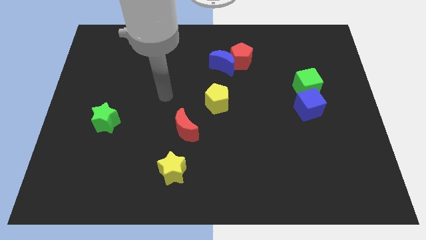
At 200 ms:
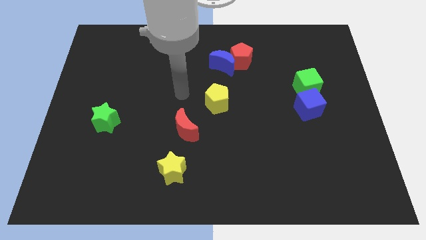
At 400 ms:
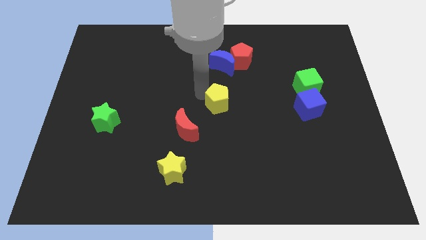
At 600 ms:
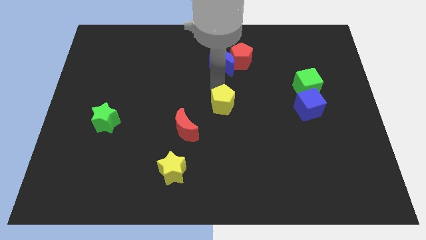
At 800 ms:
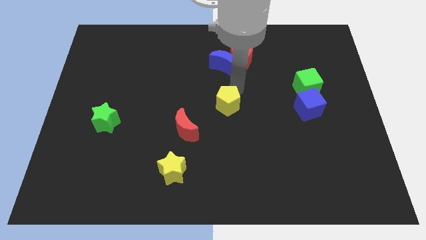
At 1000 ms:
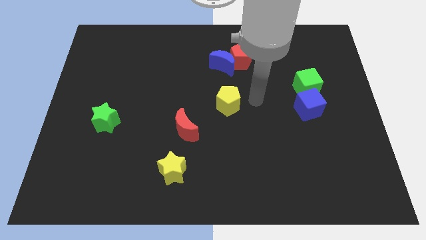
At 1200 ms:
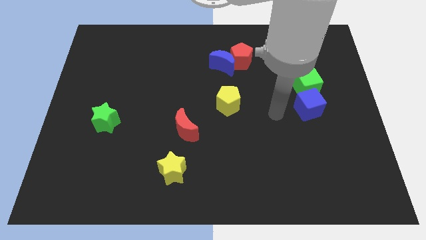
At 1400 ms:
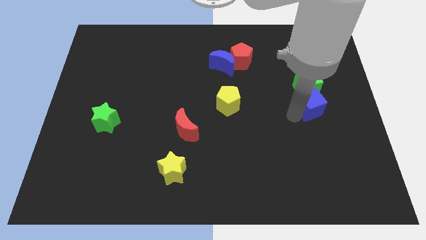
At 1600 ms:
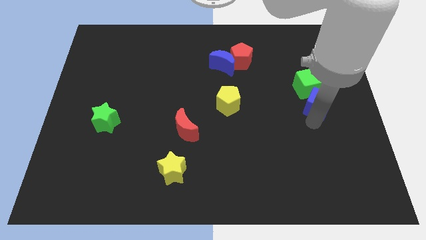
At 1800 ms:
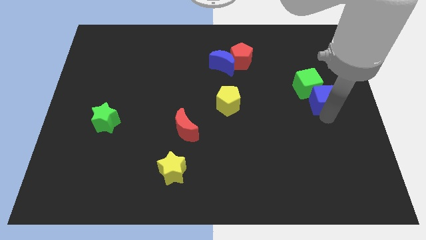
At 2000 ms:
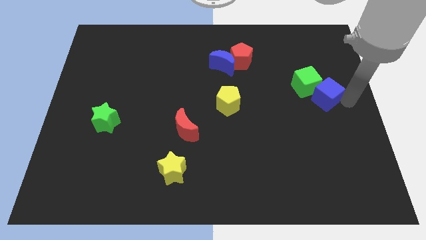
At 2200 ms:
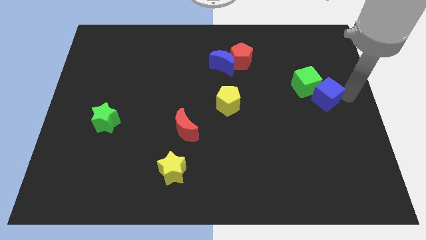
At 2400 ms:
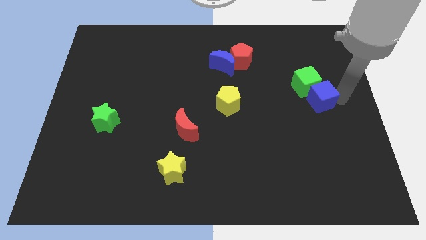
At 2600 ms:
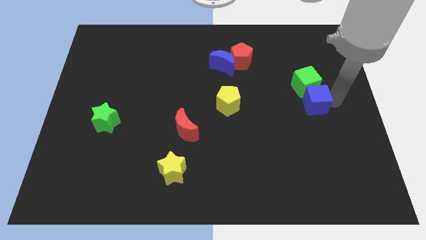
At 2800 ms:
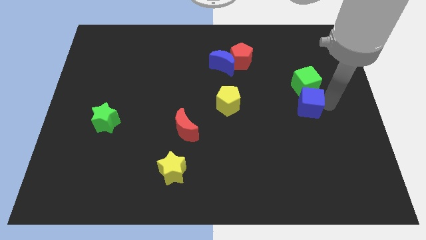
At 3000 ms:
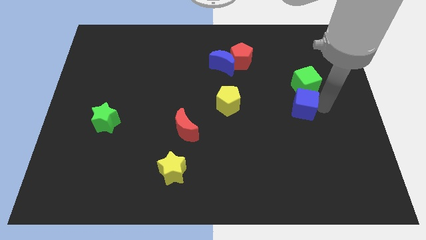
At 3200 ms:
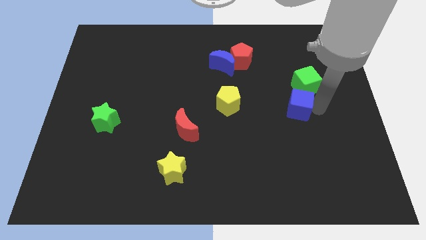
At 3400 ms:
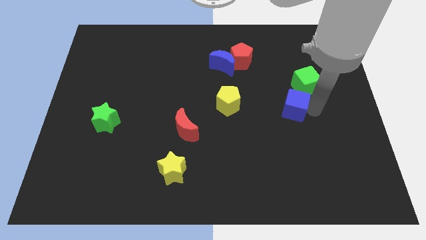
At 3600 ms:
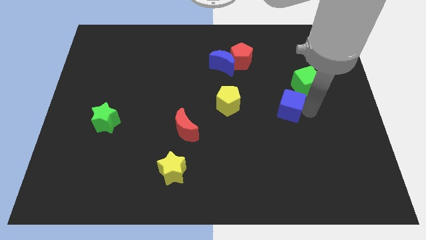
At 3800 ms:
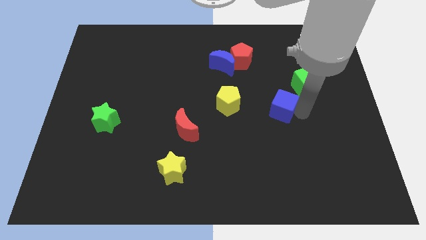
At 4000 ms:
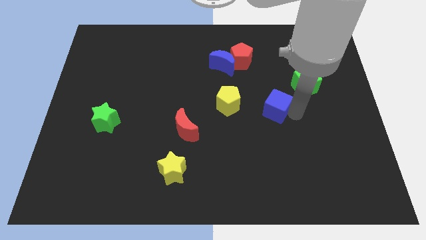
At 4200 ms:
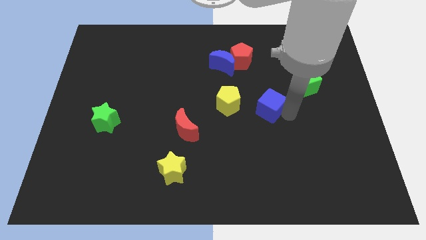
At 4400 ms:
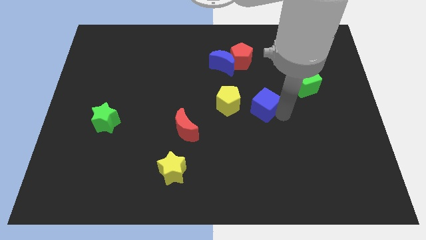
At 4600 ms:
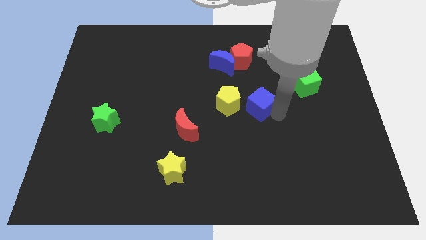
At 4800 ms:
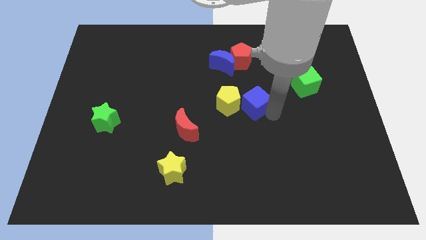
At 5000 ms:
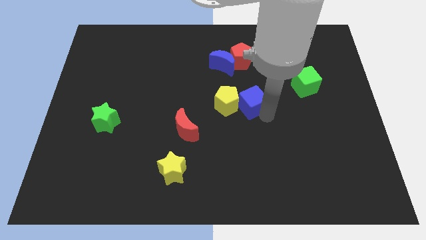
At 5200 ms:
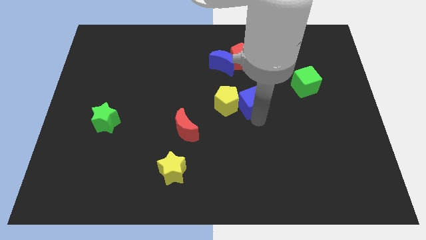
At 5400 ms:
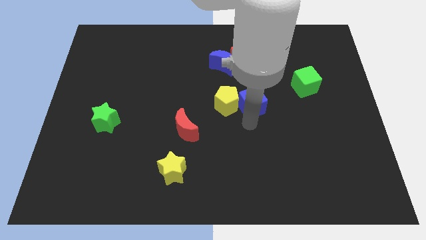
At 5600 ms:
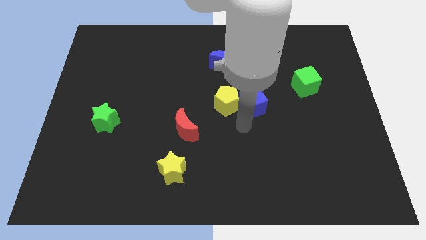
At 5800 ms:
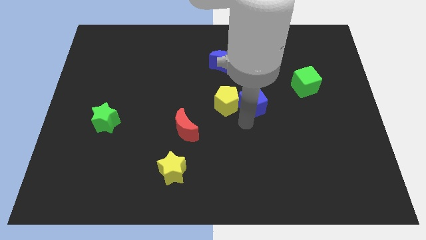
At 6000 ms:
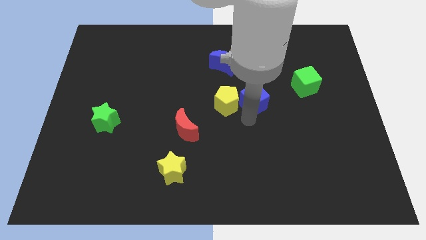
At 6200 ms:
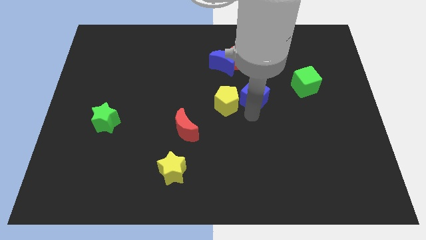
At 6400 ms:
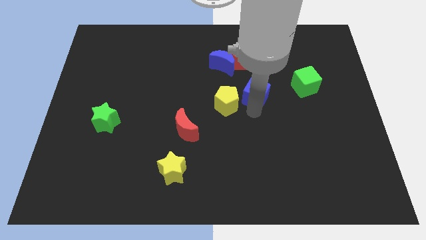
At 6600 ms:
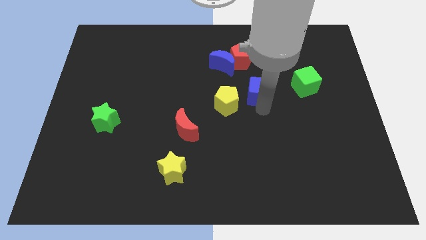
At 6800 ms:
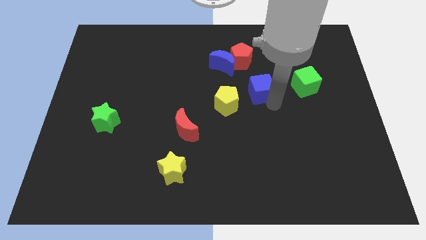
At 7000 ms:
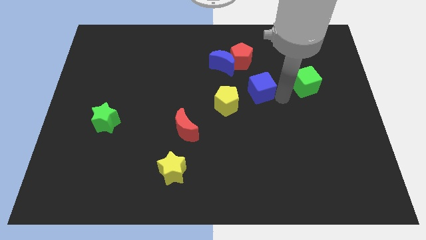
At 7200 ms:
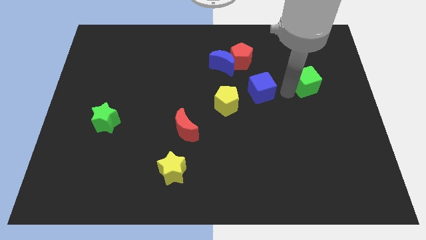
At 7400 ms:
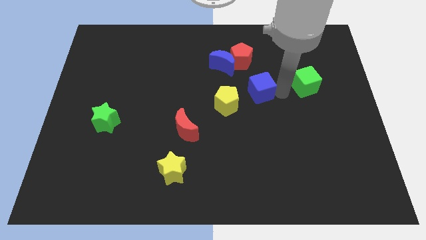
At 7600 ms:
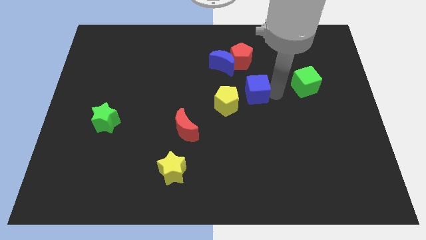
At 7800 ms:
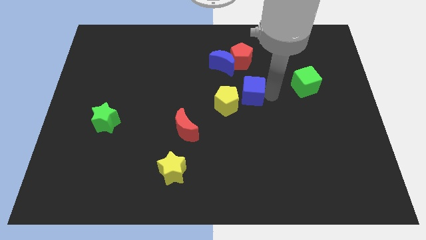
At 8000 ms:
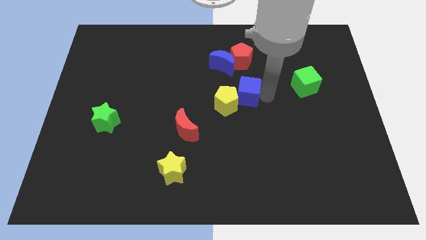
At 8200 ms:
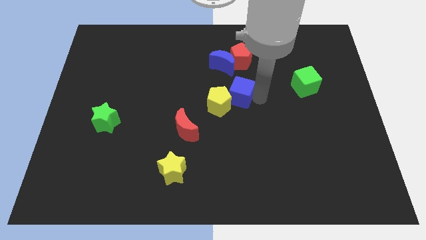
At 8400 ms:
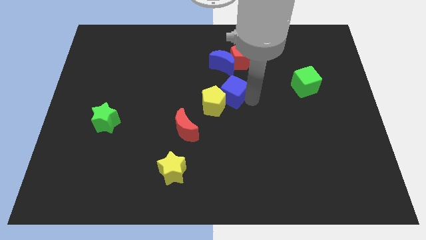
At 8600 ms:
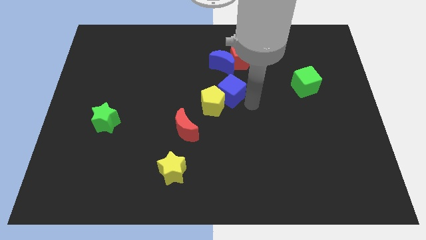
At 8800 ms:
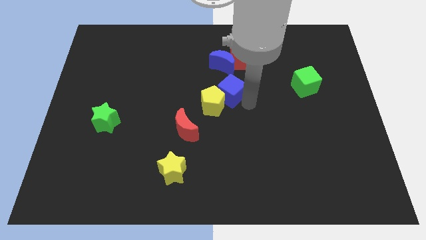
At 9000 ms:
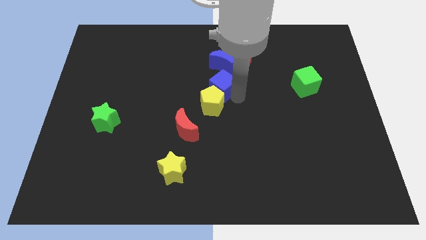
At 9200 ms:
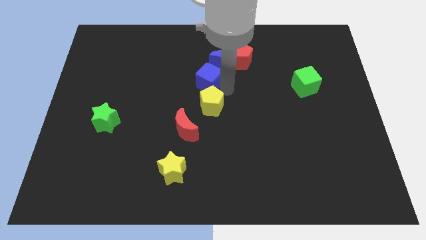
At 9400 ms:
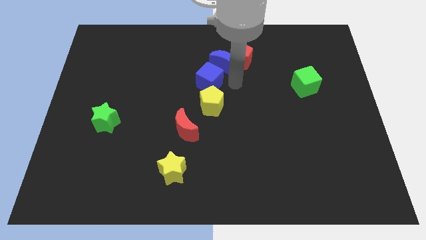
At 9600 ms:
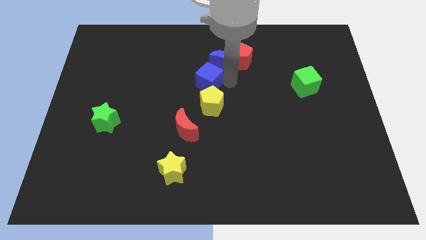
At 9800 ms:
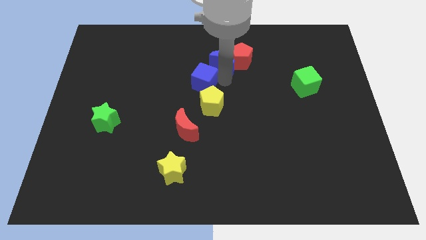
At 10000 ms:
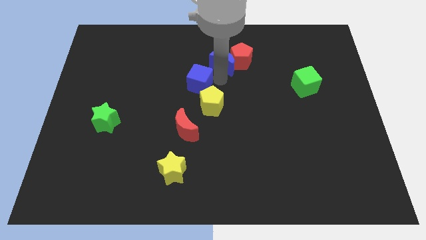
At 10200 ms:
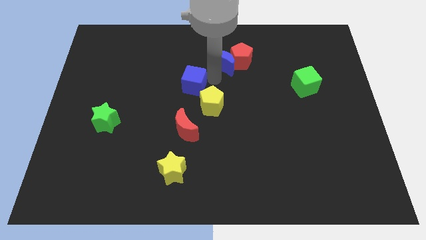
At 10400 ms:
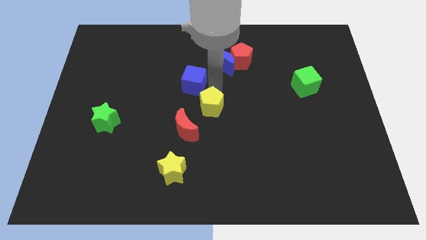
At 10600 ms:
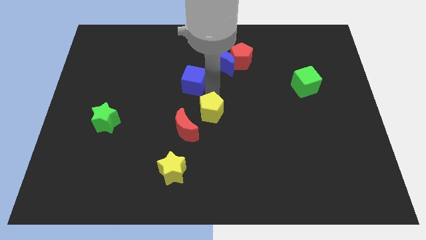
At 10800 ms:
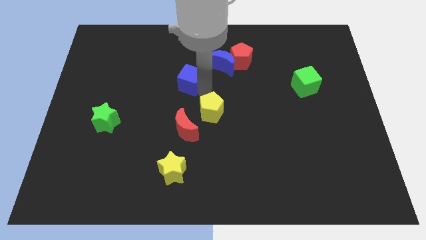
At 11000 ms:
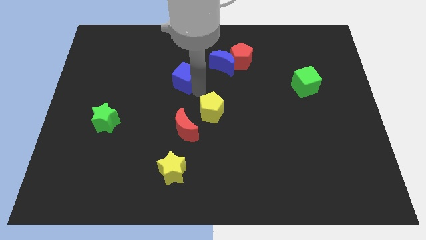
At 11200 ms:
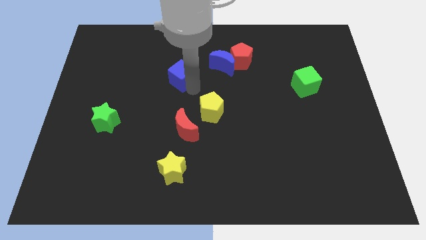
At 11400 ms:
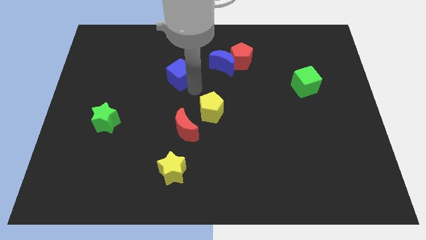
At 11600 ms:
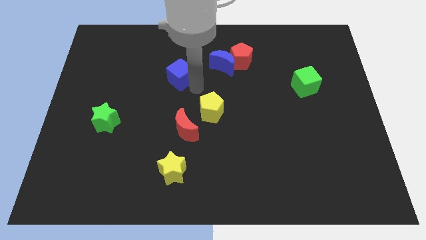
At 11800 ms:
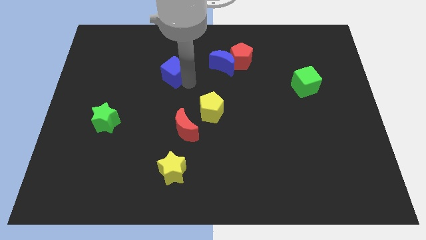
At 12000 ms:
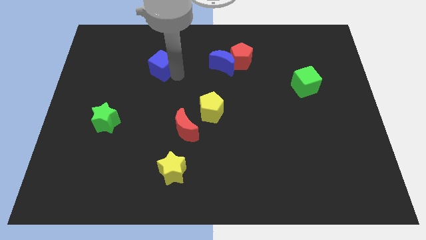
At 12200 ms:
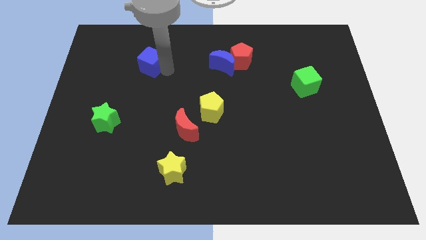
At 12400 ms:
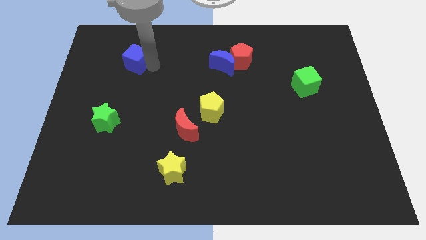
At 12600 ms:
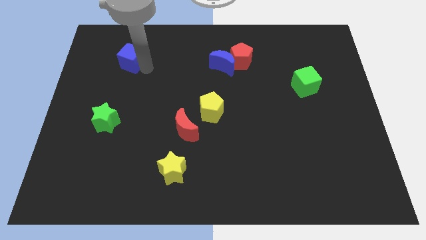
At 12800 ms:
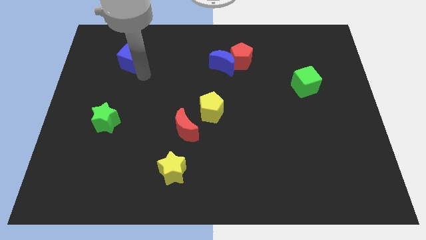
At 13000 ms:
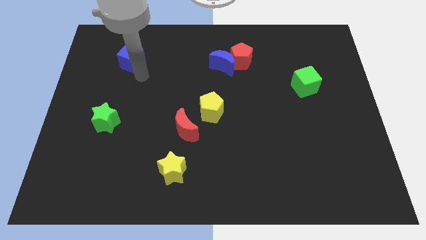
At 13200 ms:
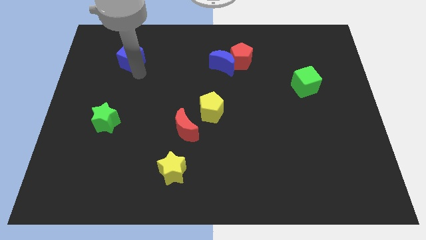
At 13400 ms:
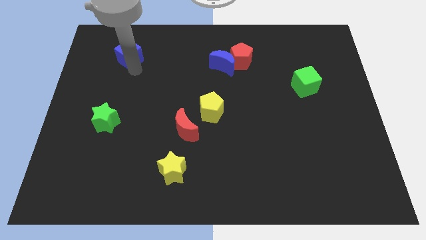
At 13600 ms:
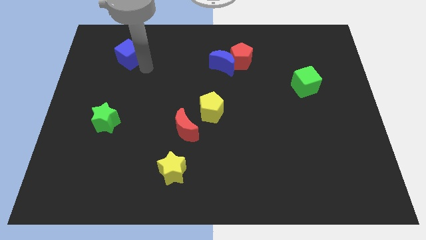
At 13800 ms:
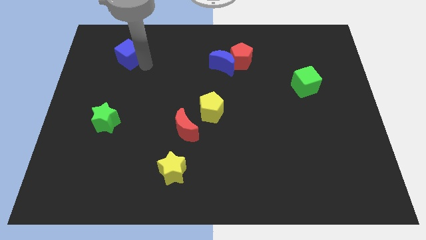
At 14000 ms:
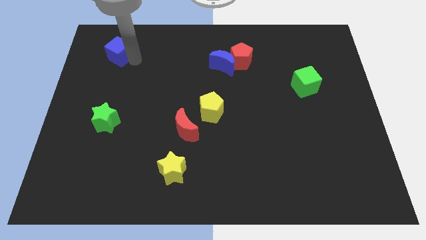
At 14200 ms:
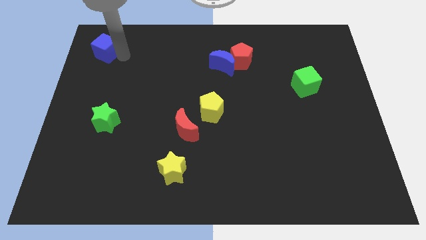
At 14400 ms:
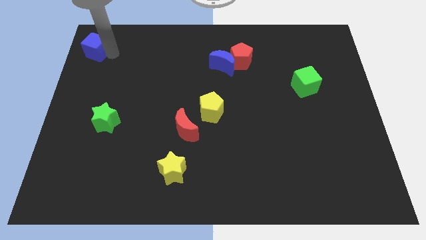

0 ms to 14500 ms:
push the blue cube to the upper left corner

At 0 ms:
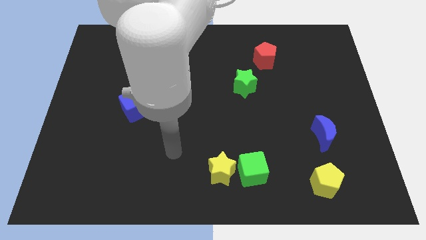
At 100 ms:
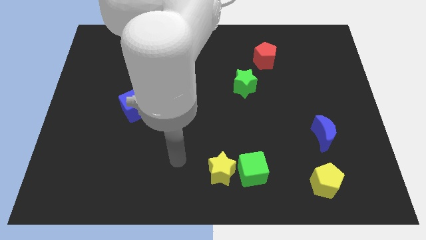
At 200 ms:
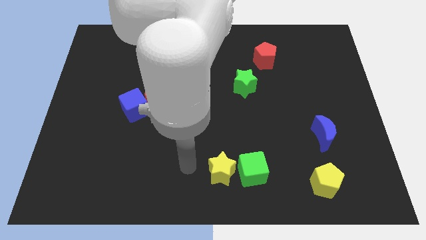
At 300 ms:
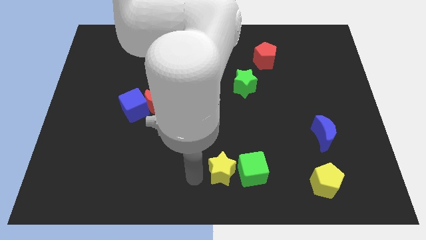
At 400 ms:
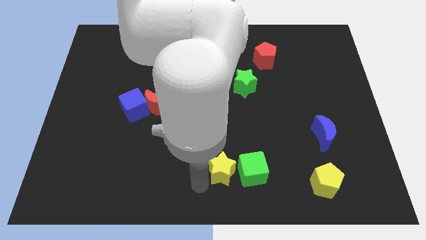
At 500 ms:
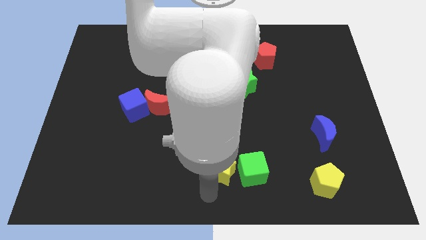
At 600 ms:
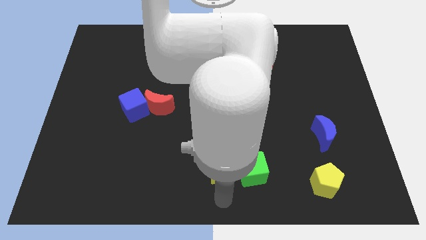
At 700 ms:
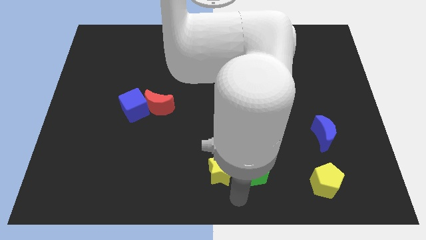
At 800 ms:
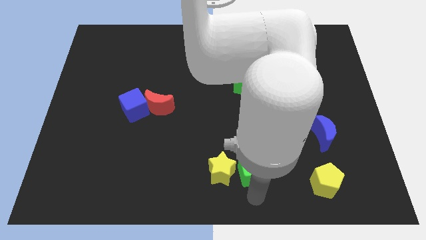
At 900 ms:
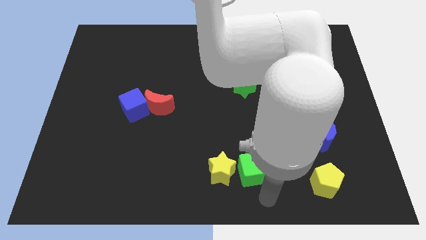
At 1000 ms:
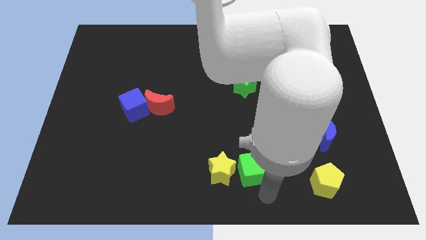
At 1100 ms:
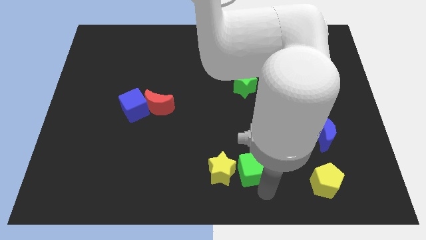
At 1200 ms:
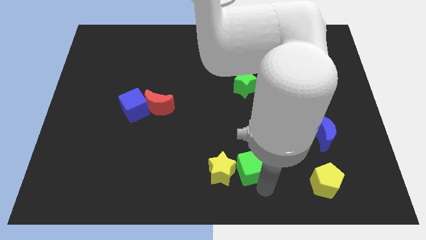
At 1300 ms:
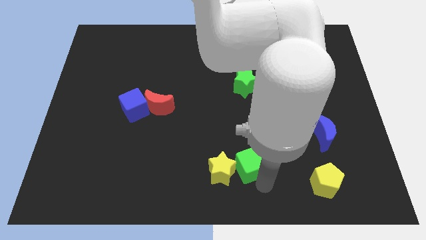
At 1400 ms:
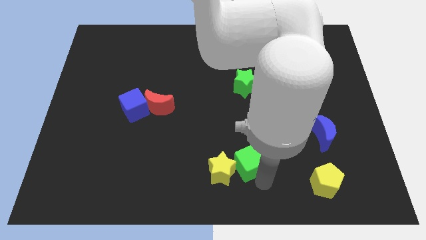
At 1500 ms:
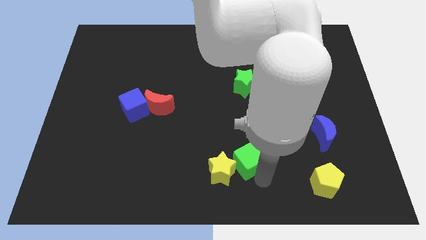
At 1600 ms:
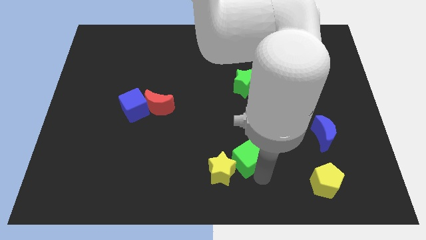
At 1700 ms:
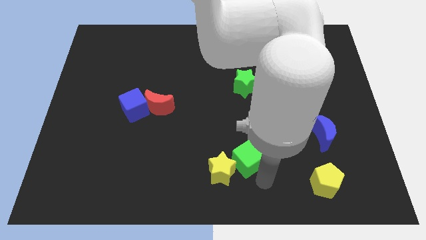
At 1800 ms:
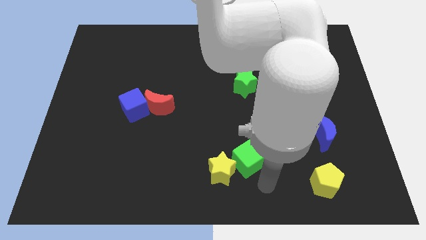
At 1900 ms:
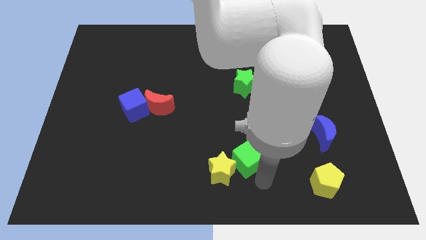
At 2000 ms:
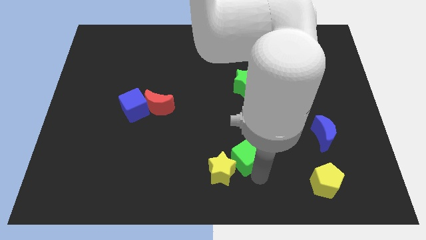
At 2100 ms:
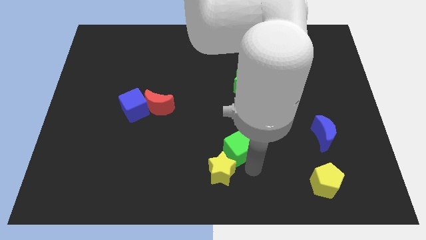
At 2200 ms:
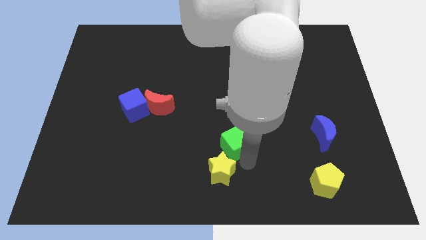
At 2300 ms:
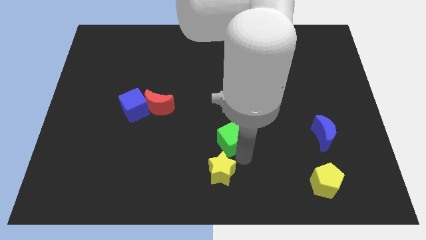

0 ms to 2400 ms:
push the green cube to the middle of the board
